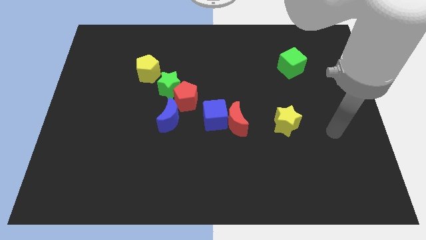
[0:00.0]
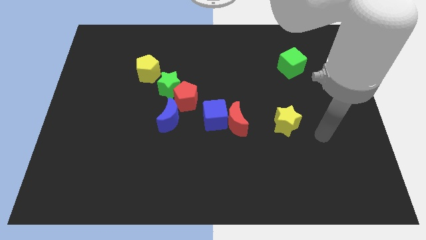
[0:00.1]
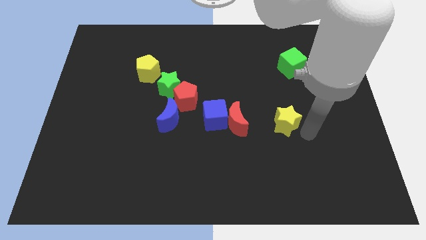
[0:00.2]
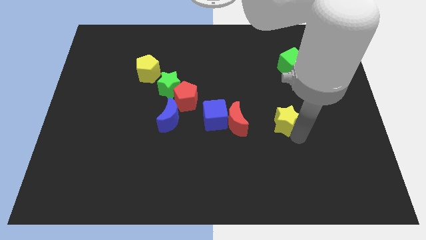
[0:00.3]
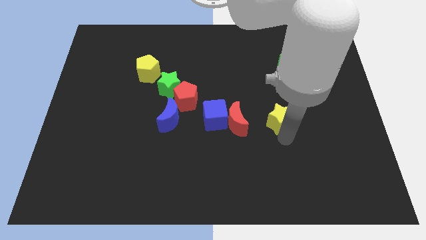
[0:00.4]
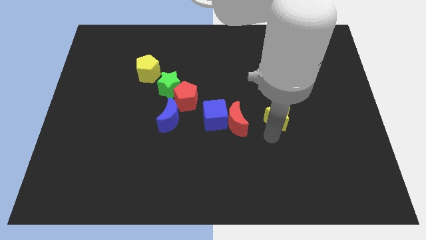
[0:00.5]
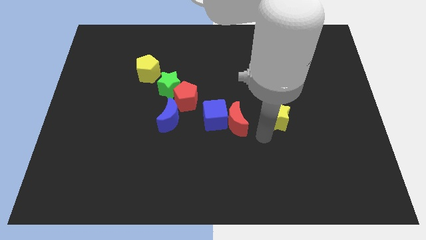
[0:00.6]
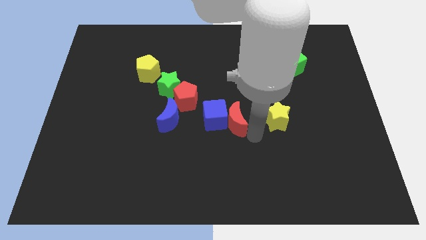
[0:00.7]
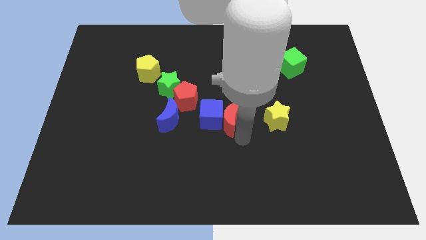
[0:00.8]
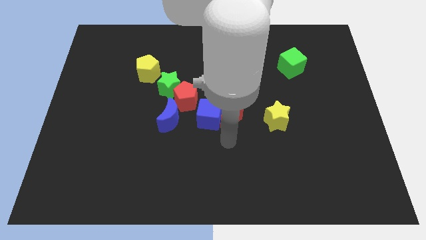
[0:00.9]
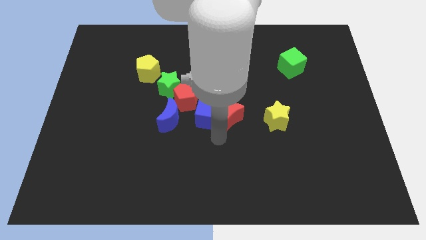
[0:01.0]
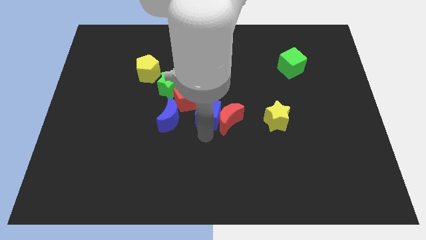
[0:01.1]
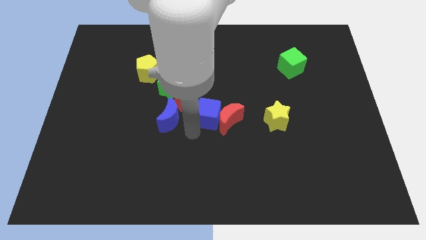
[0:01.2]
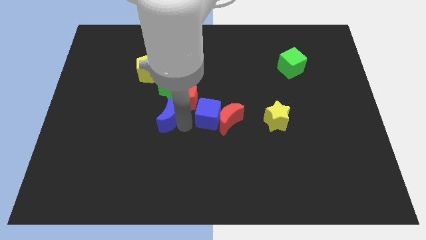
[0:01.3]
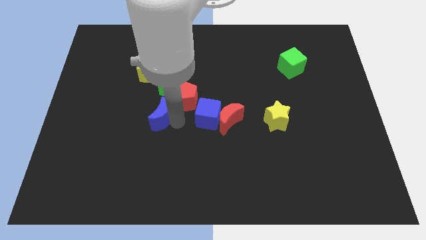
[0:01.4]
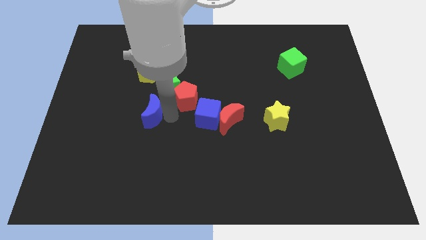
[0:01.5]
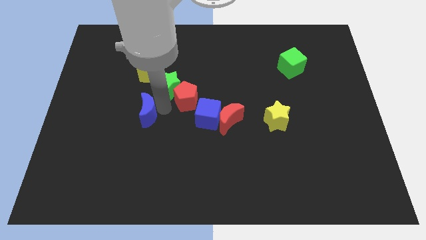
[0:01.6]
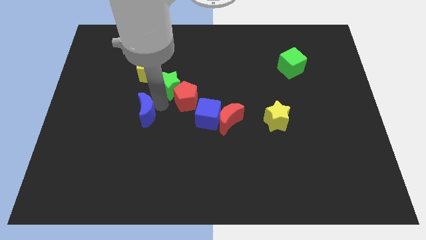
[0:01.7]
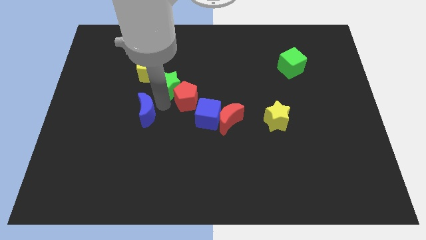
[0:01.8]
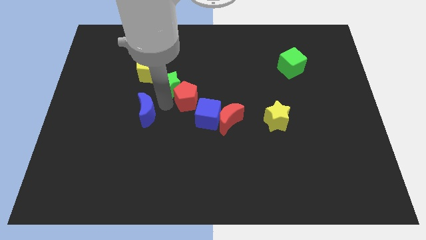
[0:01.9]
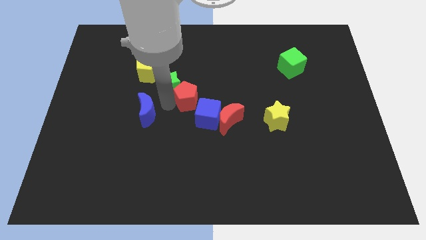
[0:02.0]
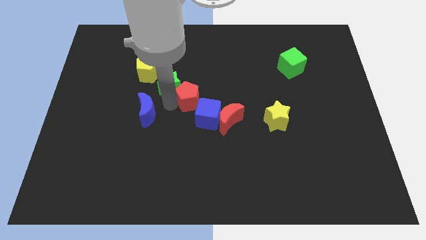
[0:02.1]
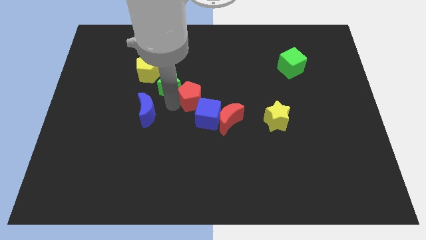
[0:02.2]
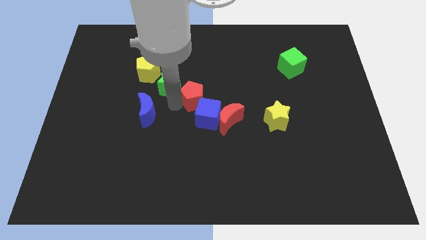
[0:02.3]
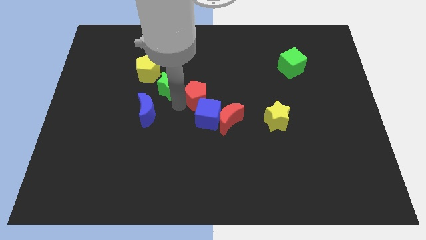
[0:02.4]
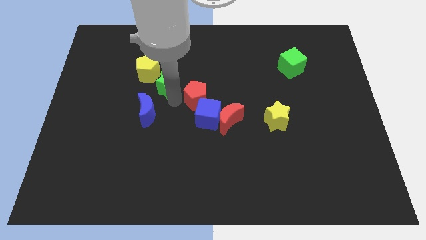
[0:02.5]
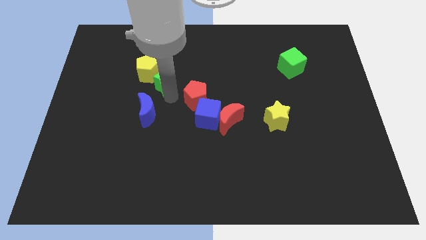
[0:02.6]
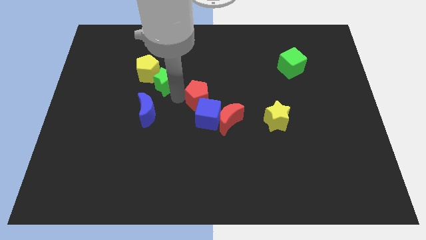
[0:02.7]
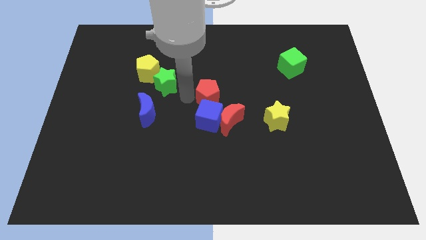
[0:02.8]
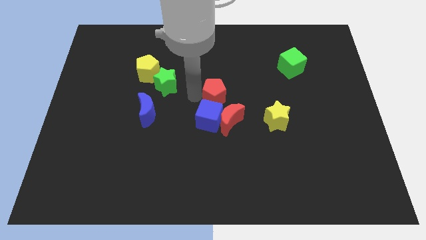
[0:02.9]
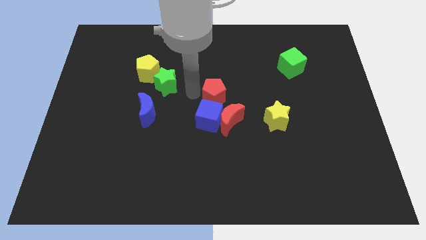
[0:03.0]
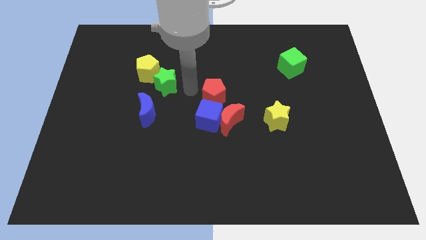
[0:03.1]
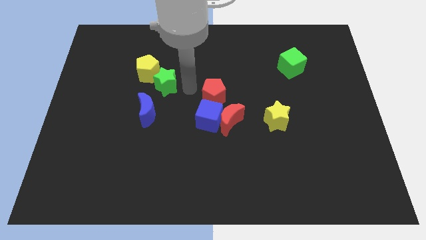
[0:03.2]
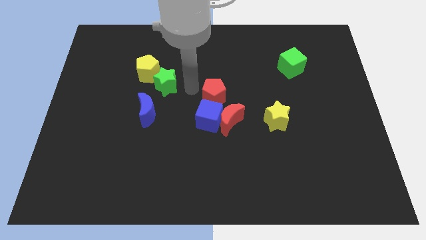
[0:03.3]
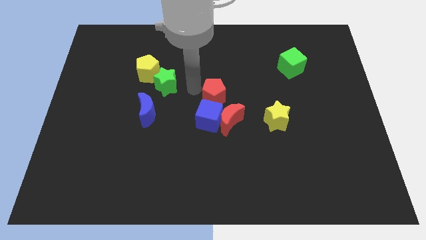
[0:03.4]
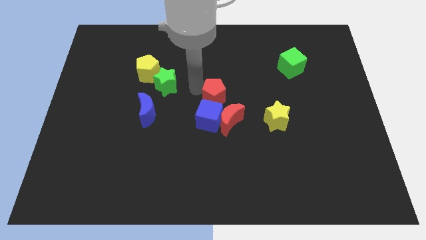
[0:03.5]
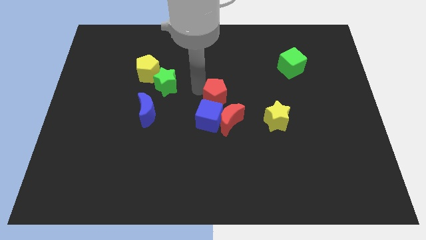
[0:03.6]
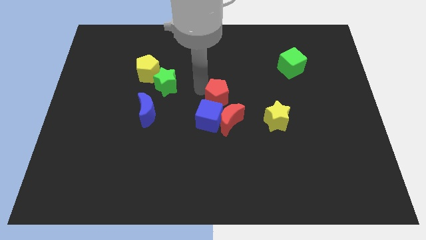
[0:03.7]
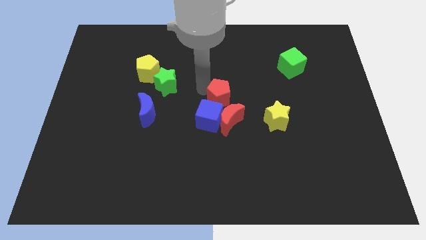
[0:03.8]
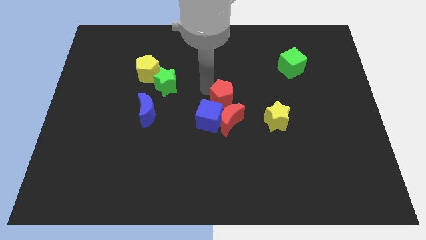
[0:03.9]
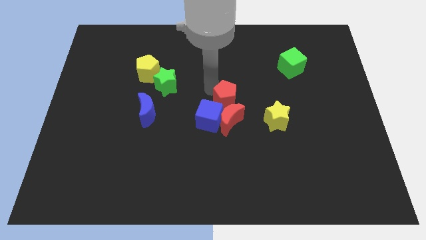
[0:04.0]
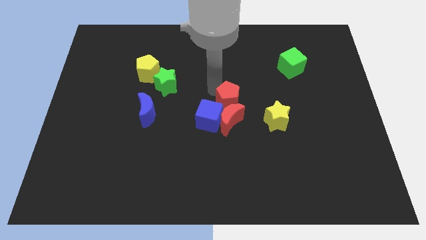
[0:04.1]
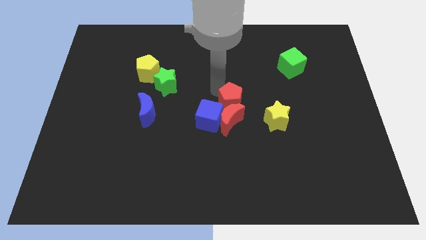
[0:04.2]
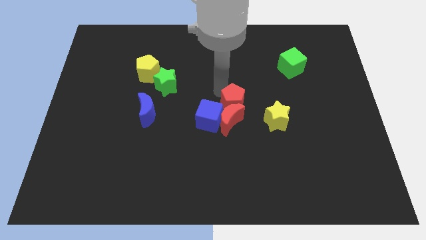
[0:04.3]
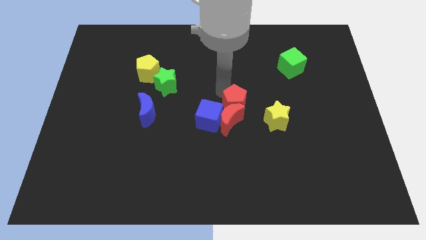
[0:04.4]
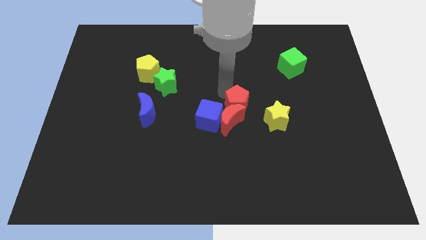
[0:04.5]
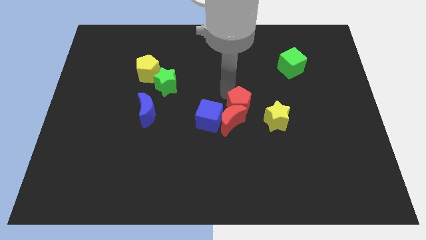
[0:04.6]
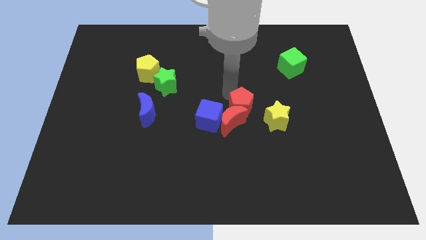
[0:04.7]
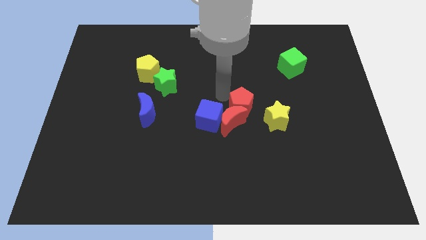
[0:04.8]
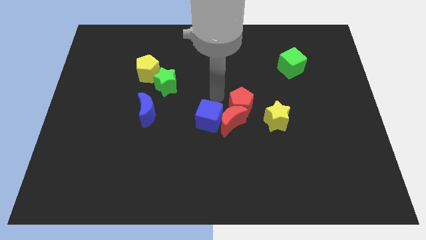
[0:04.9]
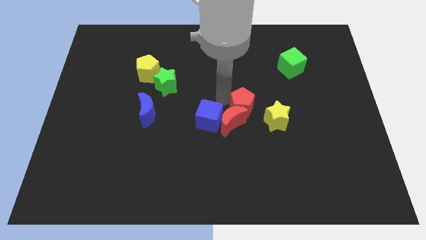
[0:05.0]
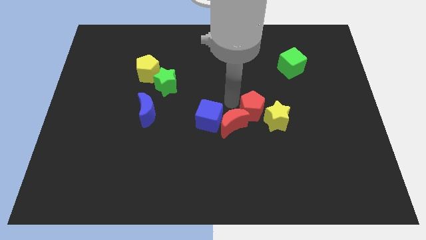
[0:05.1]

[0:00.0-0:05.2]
put the red pentagon towards the yellow star

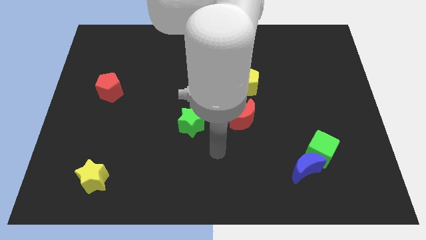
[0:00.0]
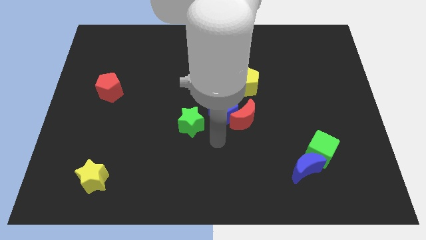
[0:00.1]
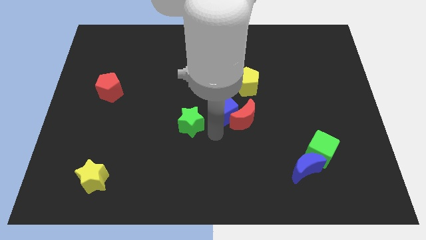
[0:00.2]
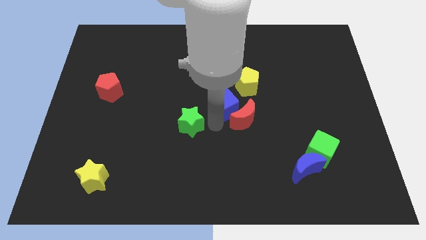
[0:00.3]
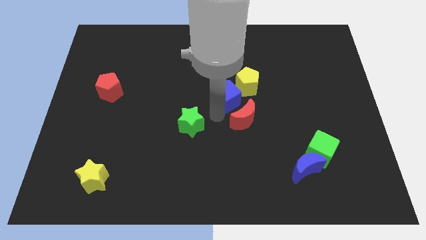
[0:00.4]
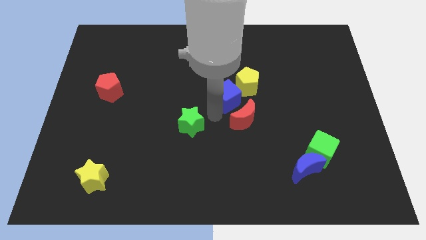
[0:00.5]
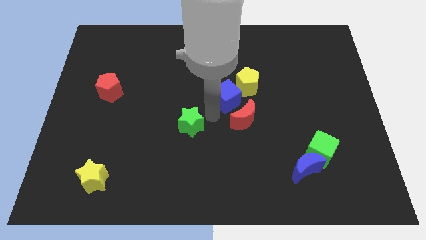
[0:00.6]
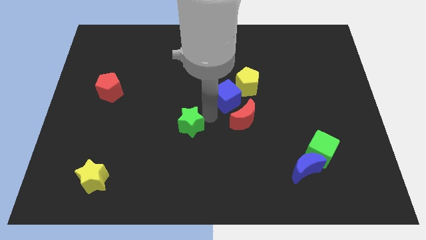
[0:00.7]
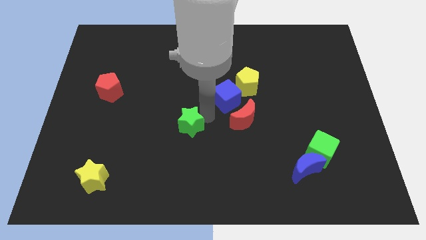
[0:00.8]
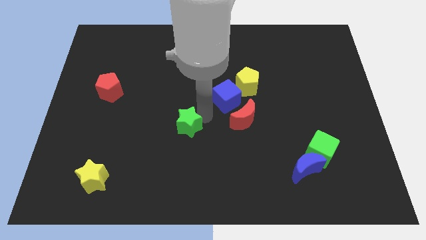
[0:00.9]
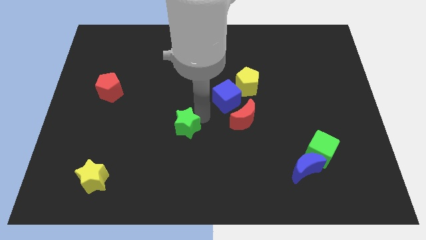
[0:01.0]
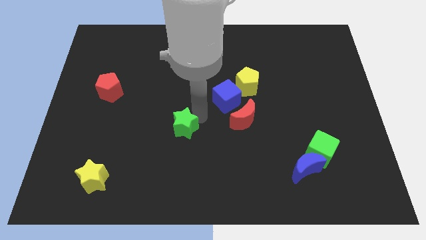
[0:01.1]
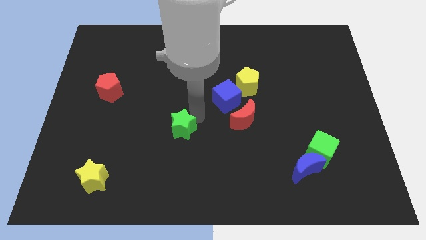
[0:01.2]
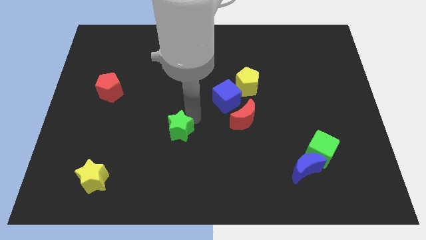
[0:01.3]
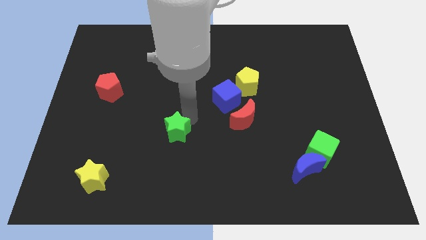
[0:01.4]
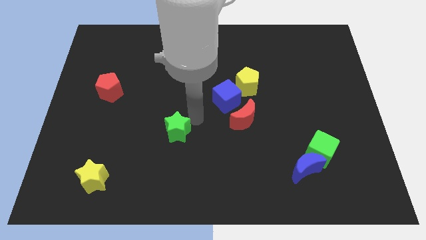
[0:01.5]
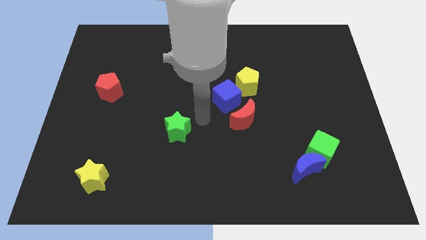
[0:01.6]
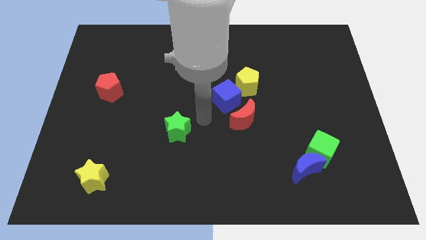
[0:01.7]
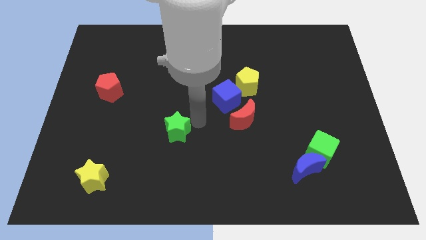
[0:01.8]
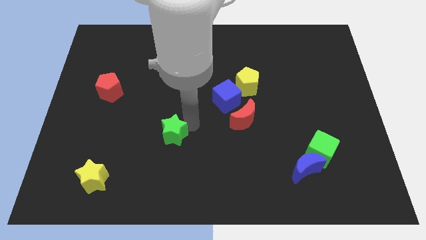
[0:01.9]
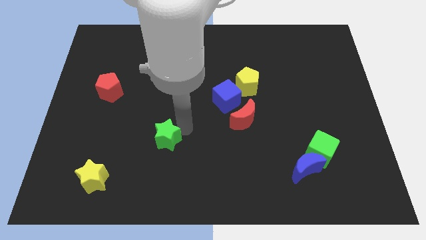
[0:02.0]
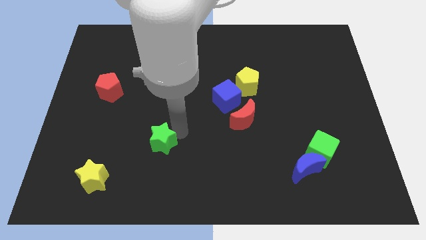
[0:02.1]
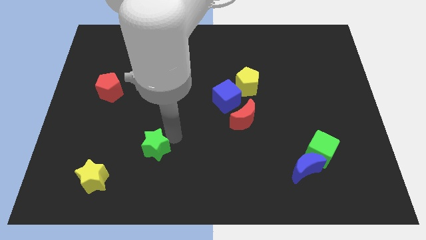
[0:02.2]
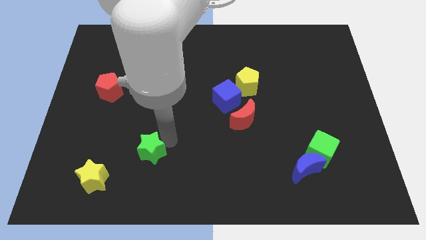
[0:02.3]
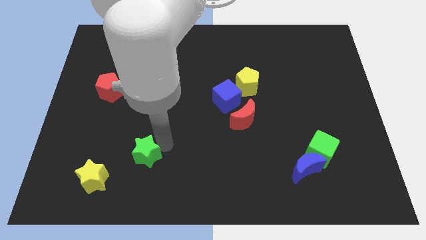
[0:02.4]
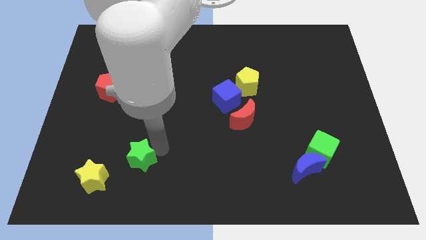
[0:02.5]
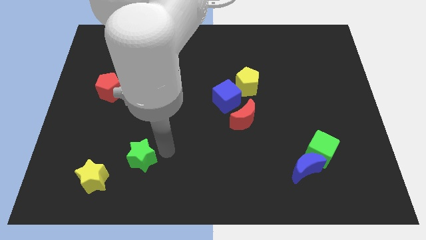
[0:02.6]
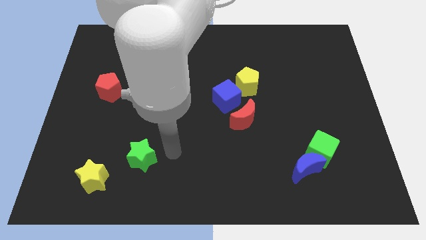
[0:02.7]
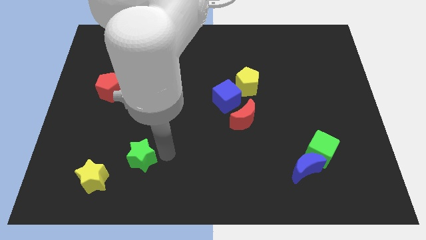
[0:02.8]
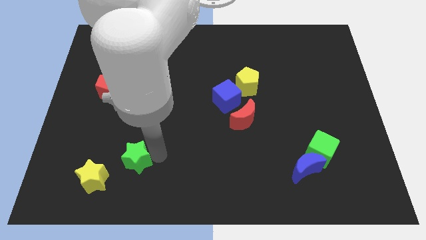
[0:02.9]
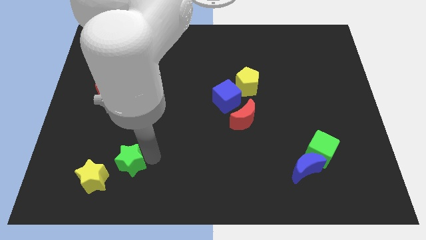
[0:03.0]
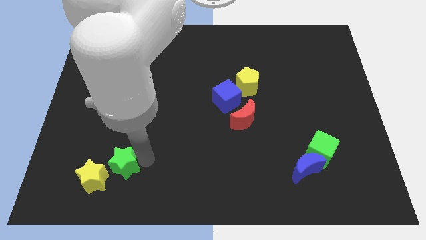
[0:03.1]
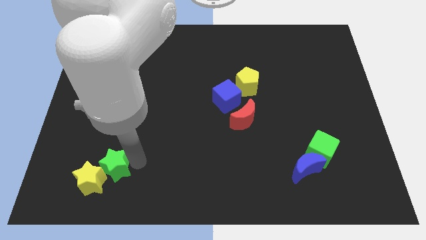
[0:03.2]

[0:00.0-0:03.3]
put the green star to the yellow star
